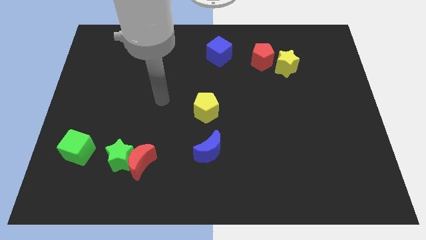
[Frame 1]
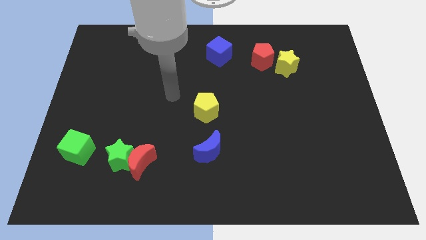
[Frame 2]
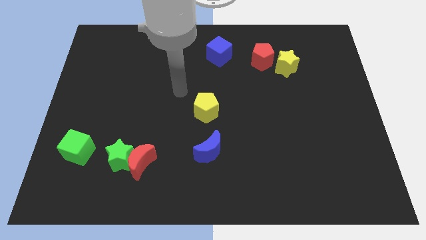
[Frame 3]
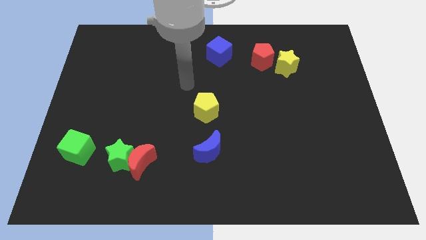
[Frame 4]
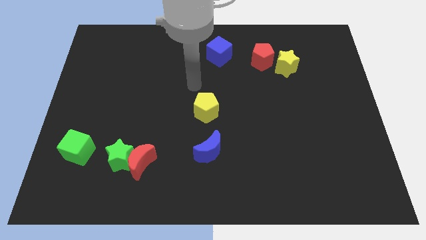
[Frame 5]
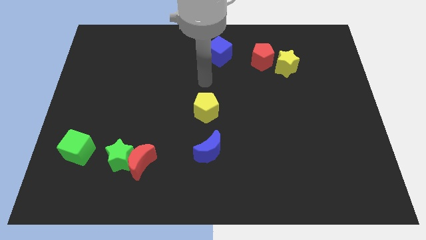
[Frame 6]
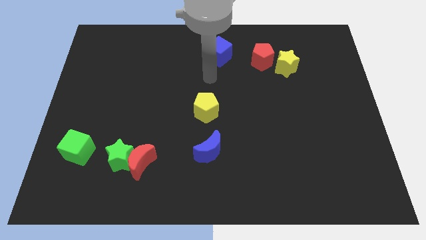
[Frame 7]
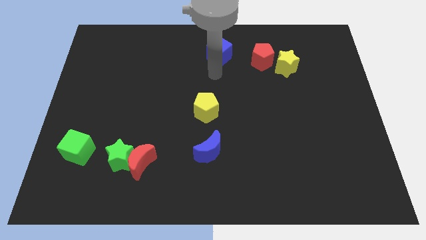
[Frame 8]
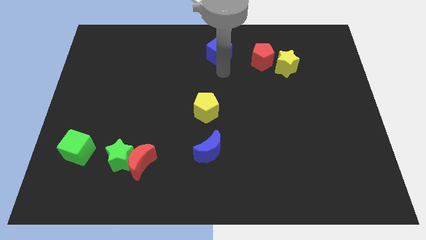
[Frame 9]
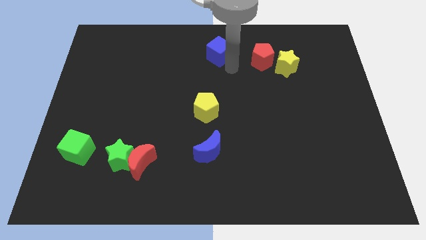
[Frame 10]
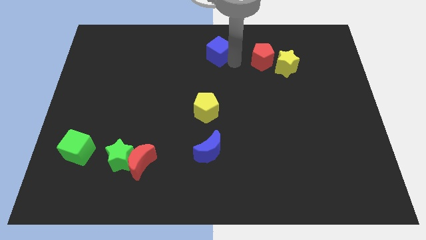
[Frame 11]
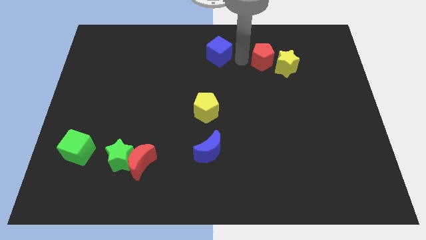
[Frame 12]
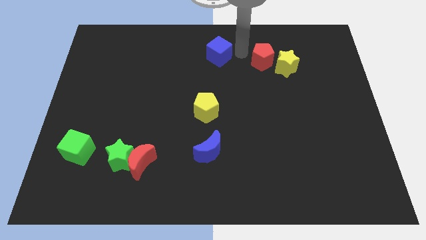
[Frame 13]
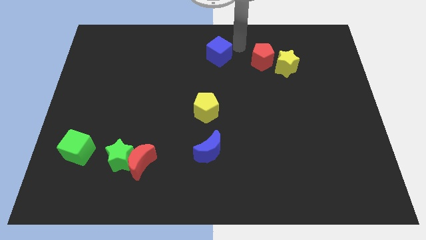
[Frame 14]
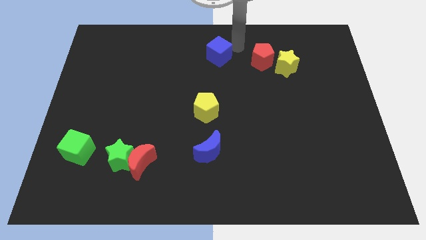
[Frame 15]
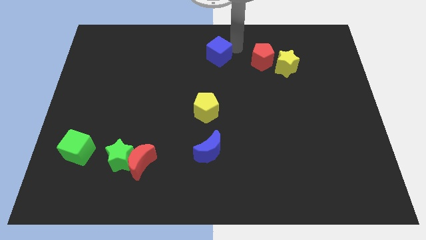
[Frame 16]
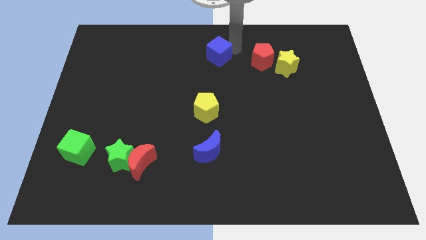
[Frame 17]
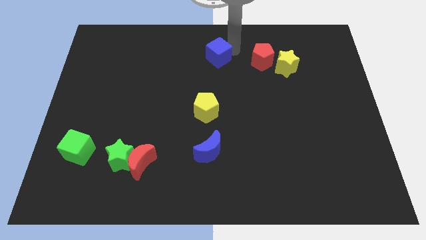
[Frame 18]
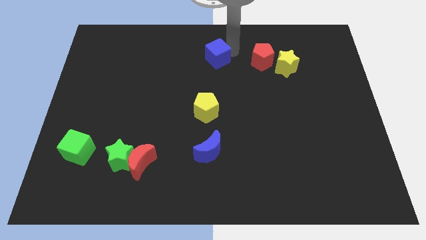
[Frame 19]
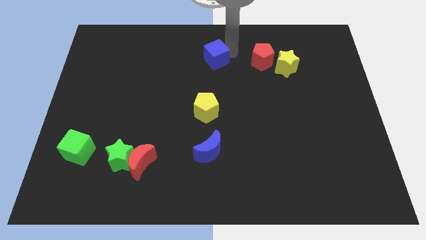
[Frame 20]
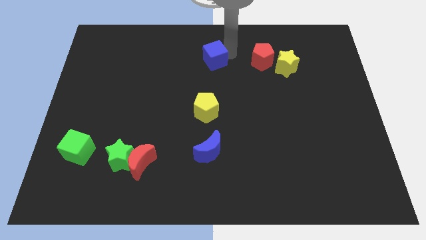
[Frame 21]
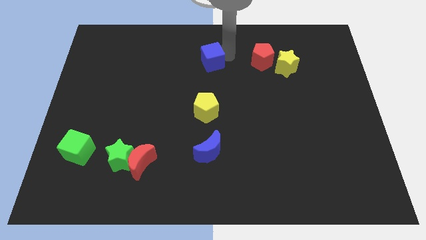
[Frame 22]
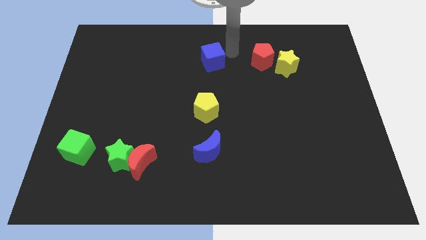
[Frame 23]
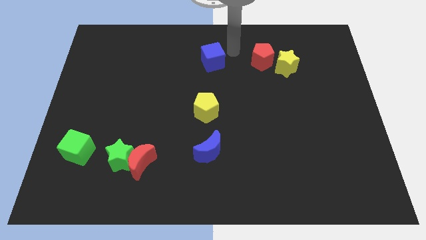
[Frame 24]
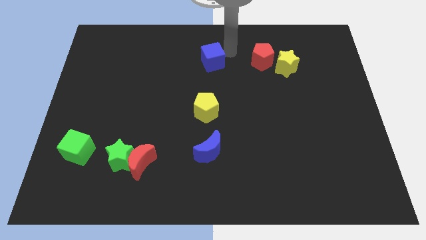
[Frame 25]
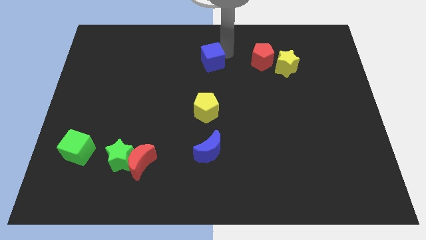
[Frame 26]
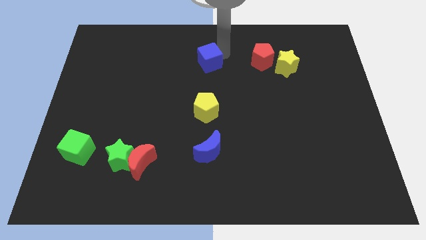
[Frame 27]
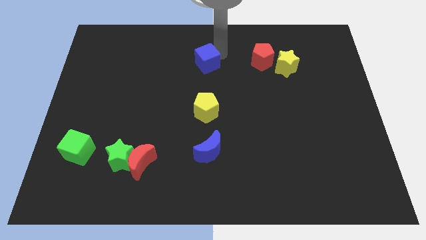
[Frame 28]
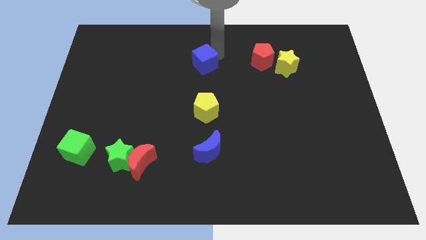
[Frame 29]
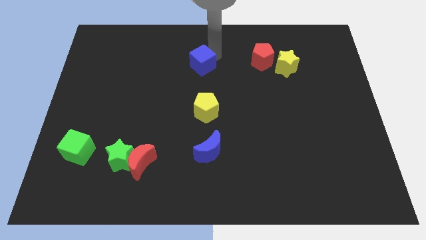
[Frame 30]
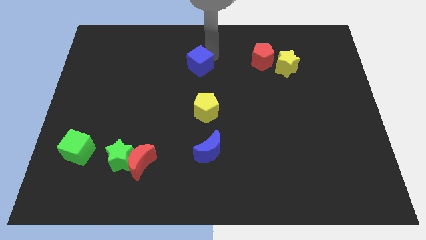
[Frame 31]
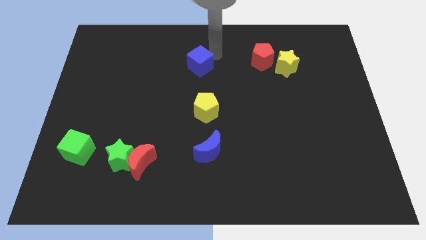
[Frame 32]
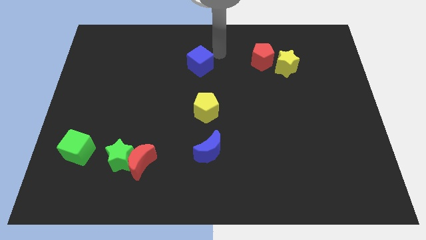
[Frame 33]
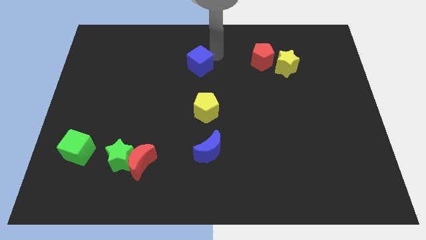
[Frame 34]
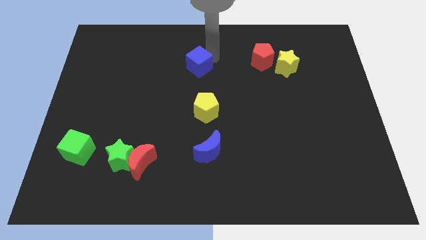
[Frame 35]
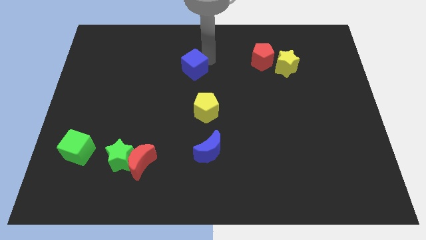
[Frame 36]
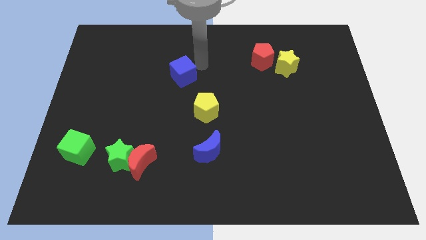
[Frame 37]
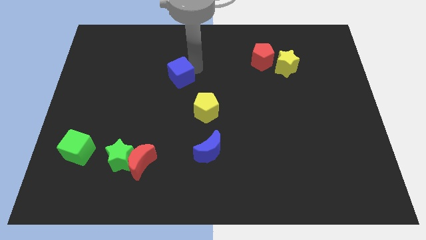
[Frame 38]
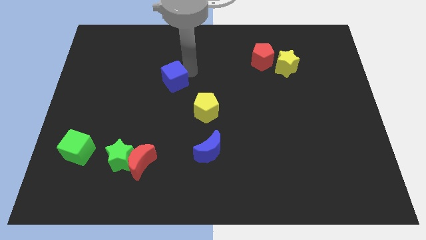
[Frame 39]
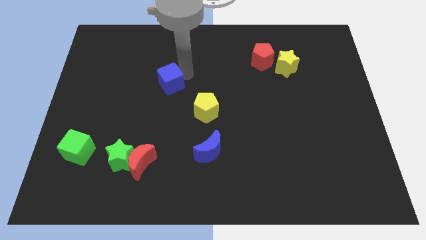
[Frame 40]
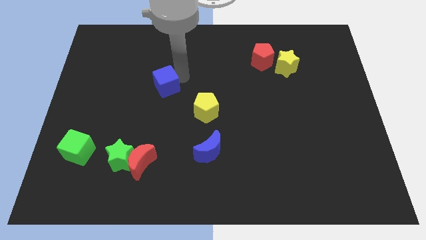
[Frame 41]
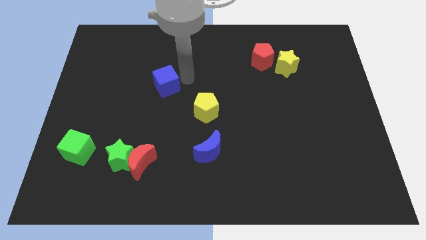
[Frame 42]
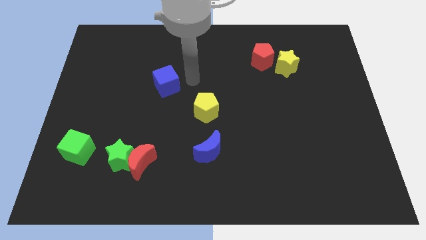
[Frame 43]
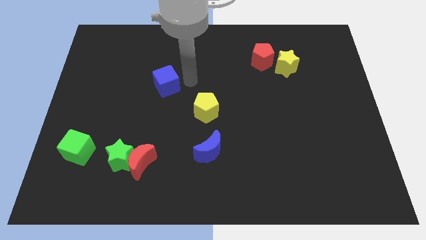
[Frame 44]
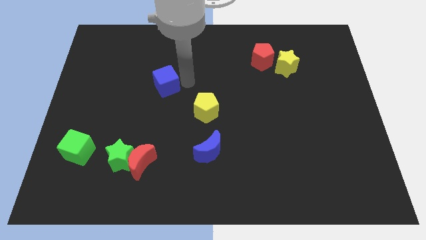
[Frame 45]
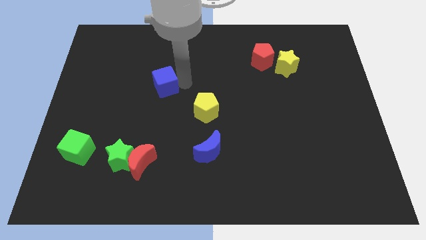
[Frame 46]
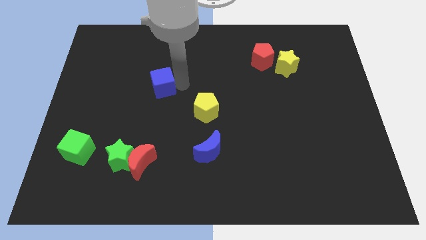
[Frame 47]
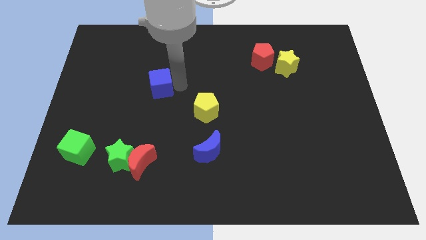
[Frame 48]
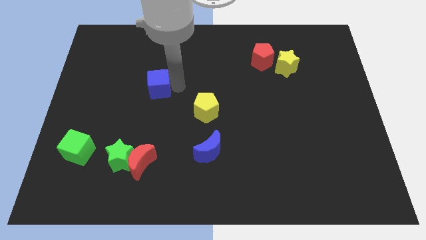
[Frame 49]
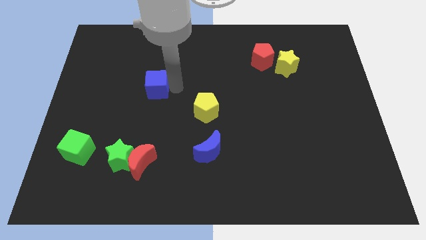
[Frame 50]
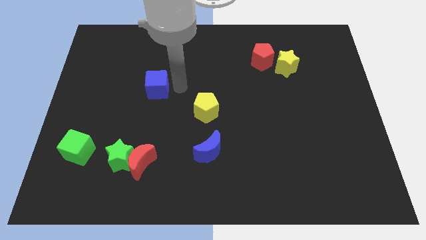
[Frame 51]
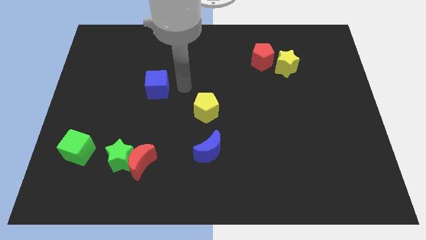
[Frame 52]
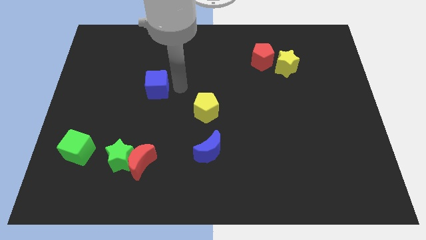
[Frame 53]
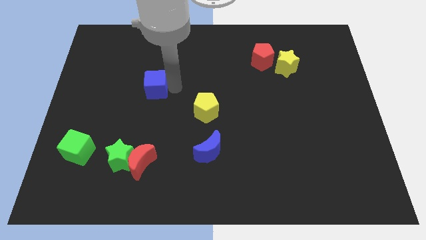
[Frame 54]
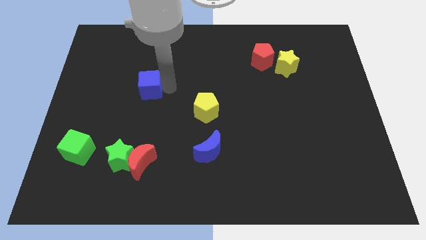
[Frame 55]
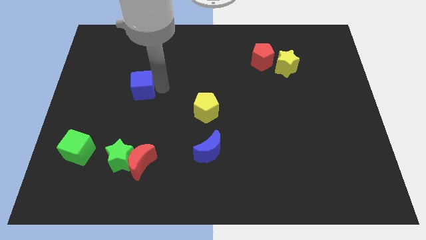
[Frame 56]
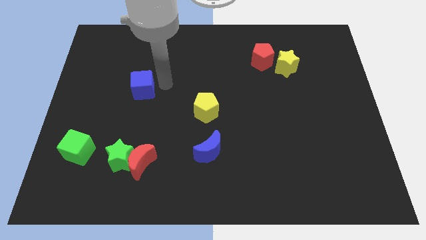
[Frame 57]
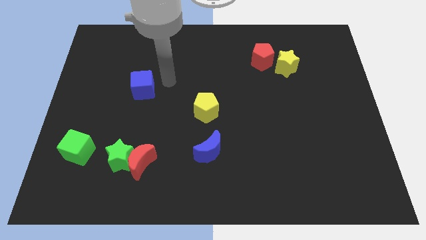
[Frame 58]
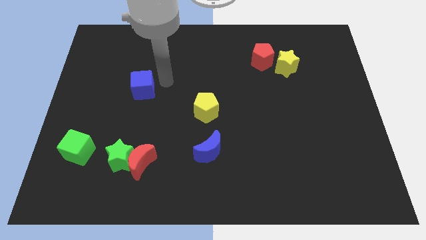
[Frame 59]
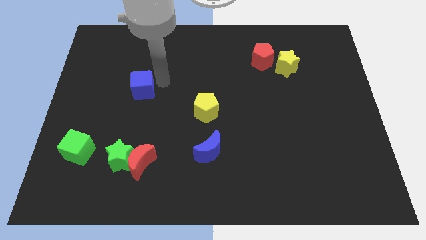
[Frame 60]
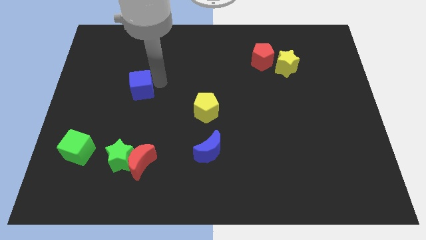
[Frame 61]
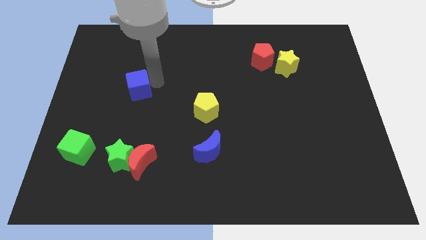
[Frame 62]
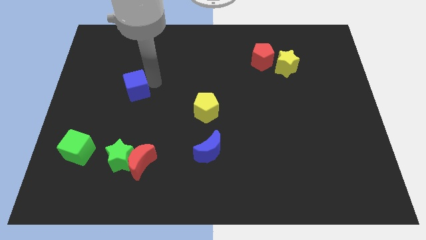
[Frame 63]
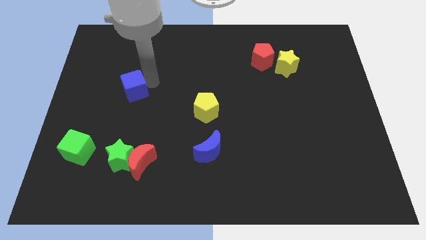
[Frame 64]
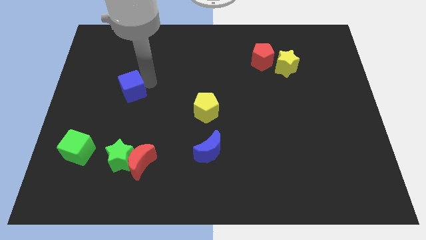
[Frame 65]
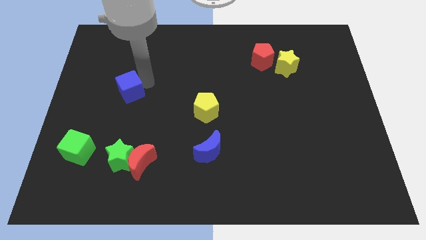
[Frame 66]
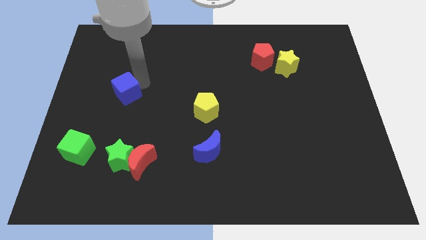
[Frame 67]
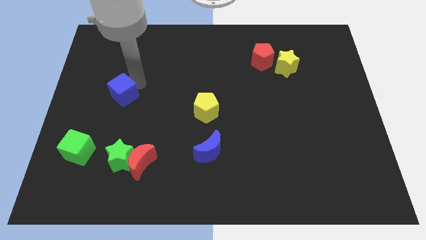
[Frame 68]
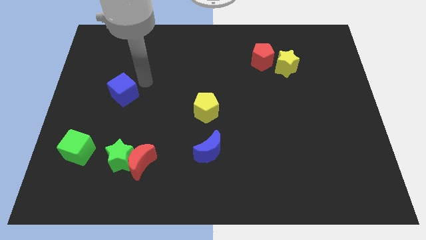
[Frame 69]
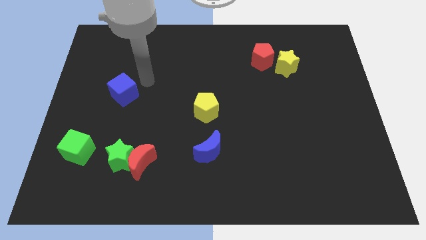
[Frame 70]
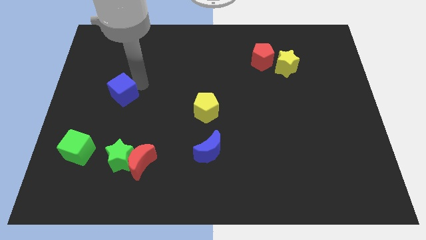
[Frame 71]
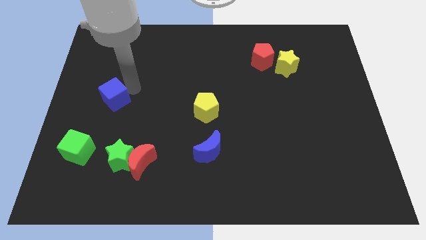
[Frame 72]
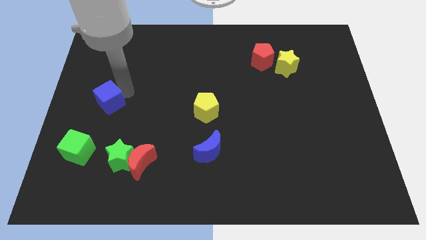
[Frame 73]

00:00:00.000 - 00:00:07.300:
move the blue cube to the top side of the green cube

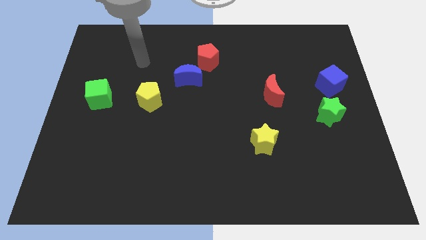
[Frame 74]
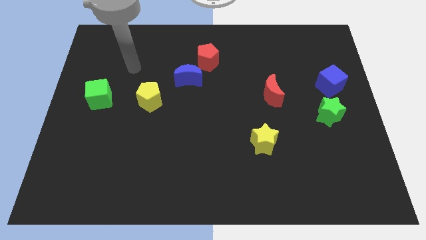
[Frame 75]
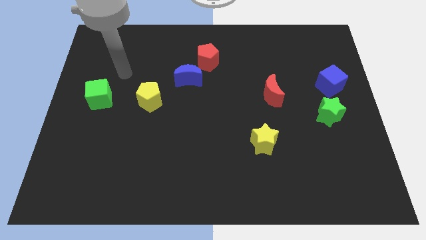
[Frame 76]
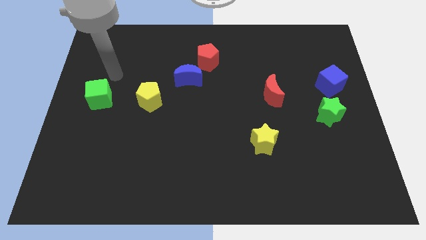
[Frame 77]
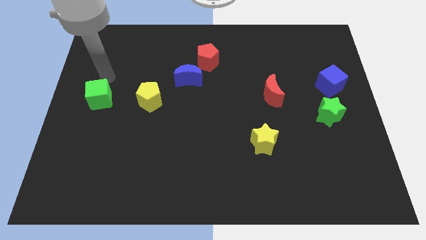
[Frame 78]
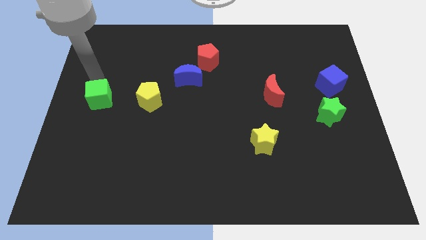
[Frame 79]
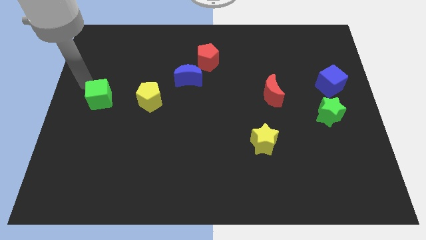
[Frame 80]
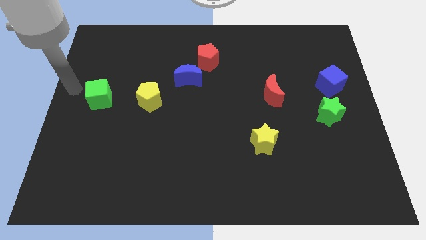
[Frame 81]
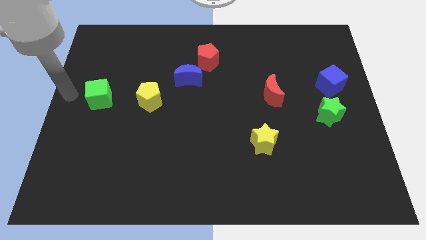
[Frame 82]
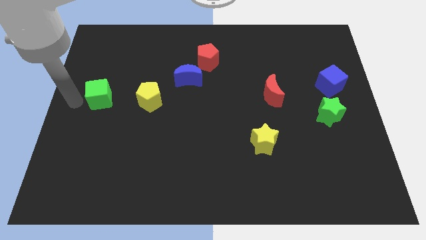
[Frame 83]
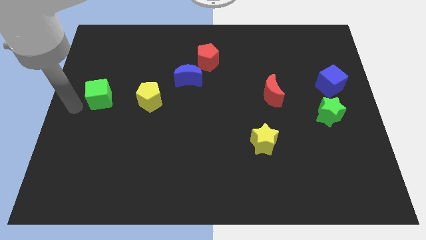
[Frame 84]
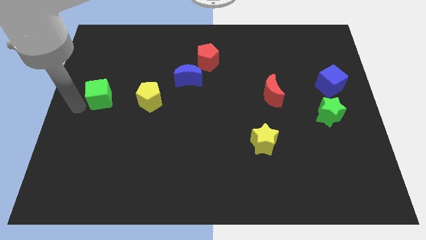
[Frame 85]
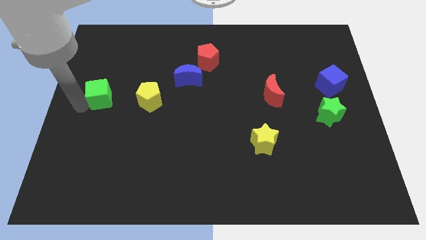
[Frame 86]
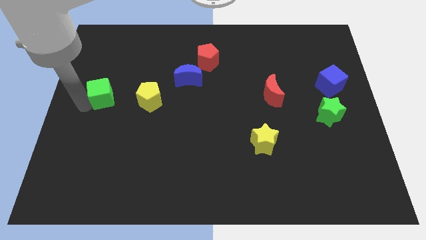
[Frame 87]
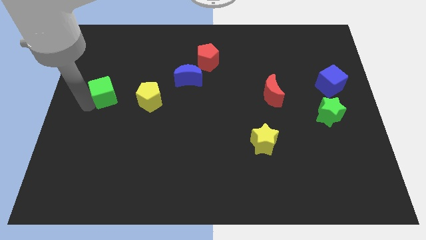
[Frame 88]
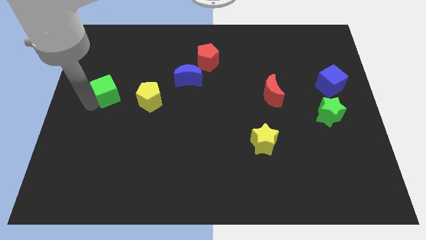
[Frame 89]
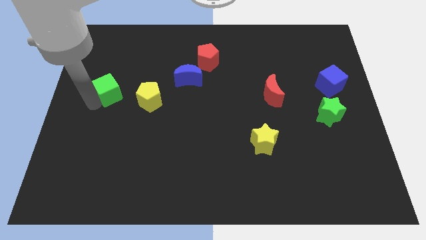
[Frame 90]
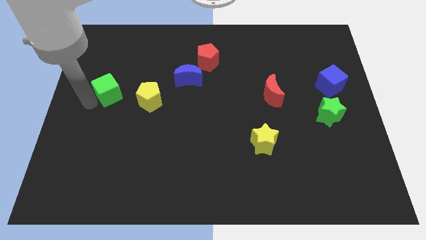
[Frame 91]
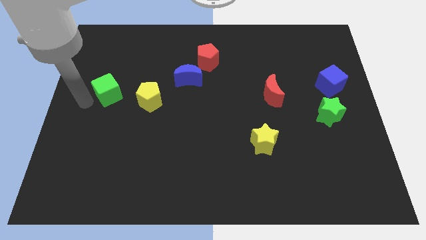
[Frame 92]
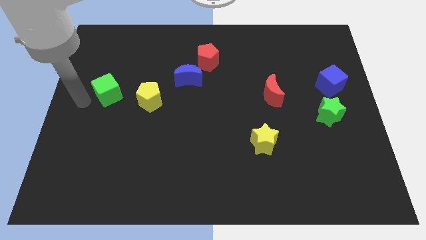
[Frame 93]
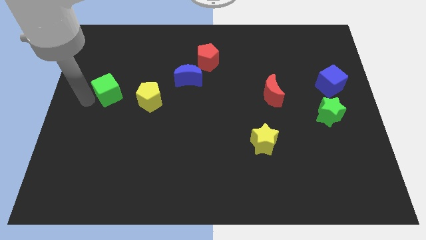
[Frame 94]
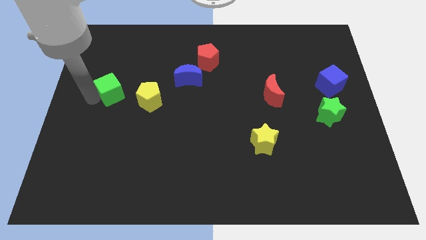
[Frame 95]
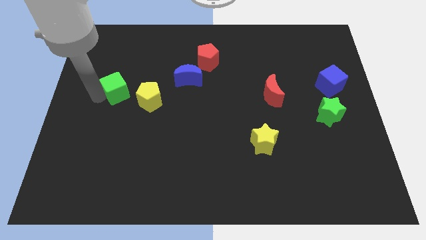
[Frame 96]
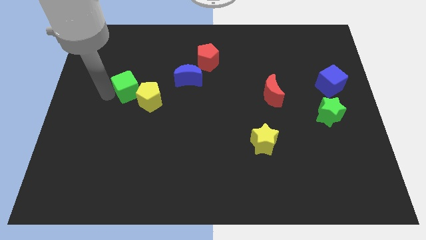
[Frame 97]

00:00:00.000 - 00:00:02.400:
put the green cube to the left side of the blue moon
